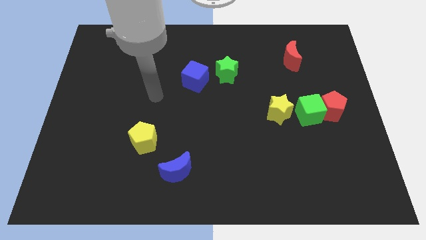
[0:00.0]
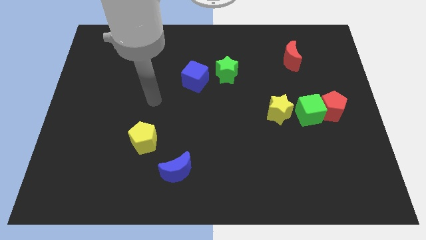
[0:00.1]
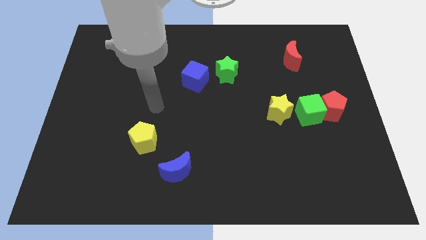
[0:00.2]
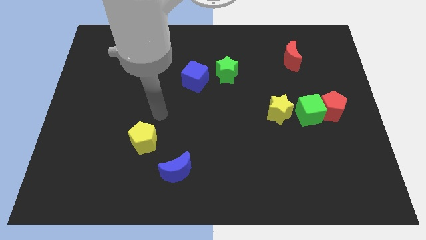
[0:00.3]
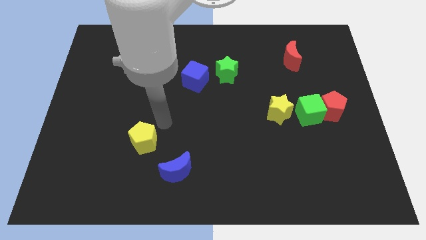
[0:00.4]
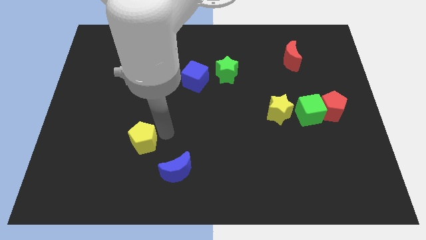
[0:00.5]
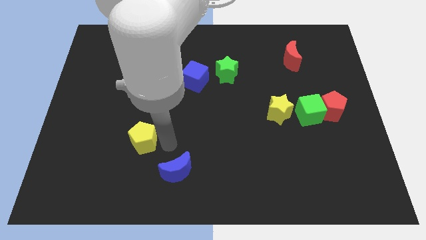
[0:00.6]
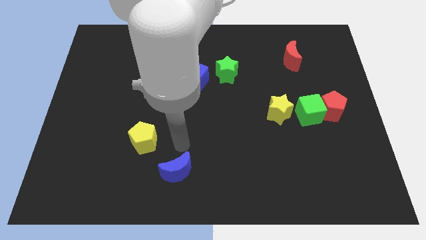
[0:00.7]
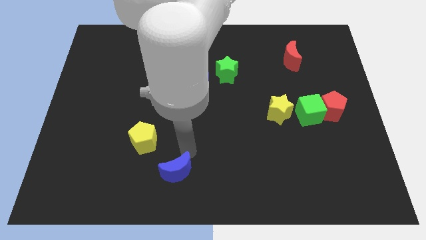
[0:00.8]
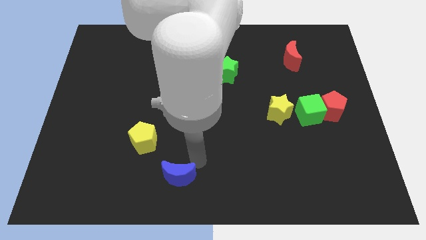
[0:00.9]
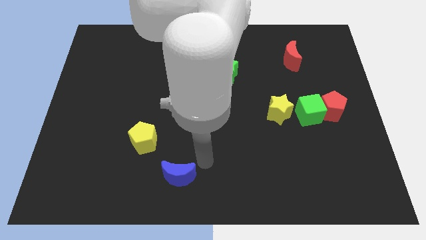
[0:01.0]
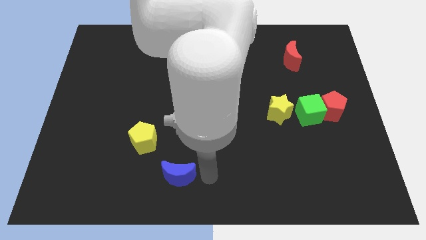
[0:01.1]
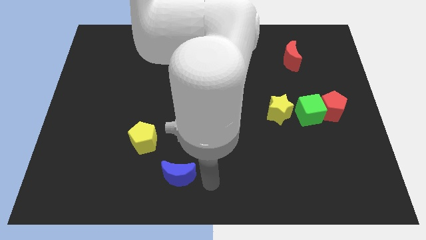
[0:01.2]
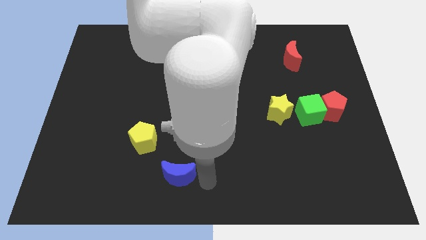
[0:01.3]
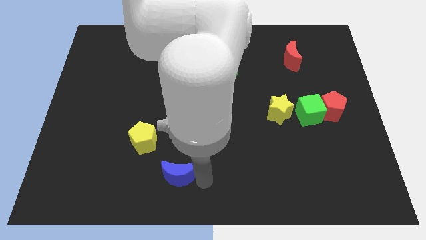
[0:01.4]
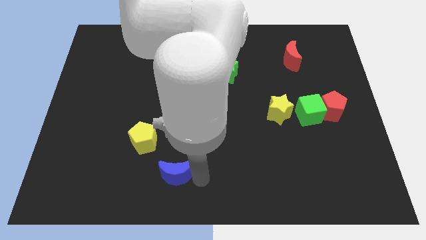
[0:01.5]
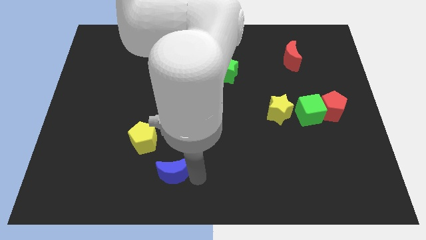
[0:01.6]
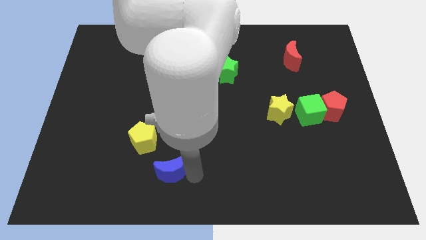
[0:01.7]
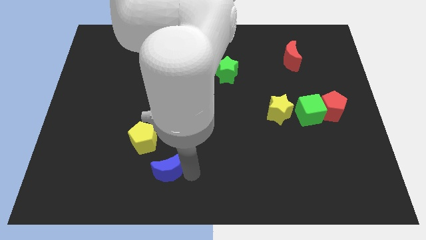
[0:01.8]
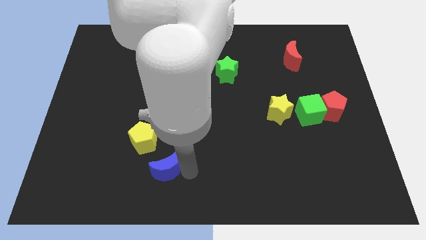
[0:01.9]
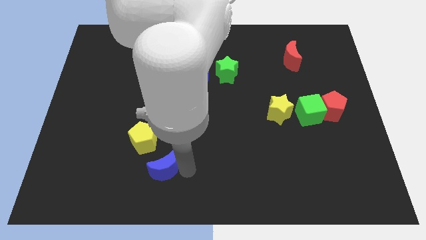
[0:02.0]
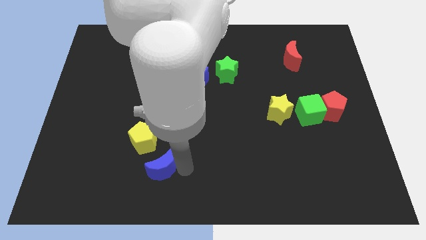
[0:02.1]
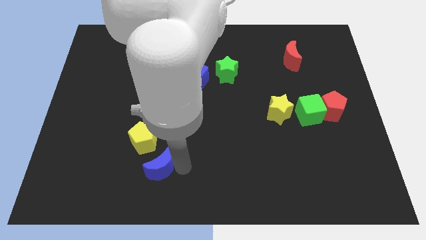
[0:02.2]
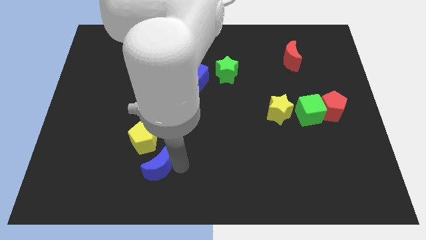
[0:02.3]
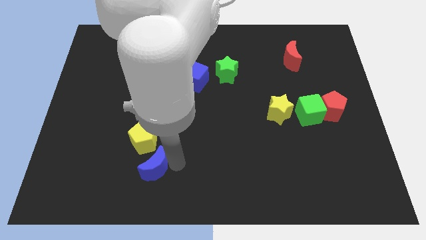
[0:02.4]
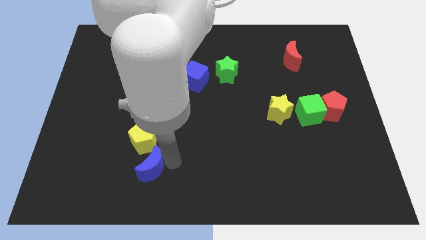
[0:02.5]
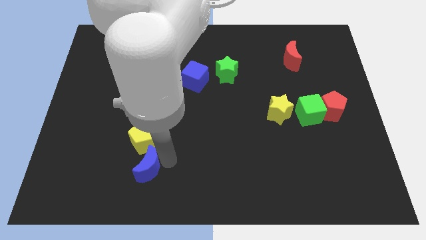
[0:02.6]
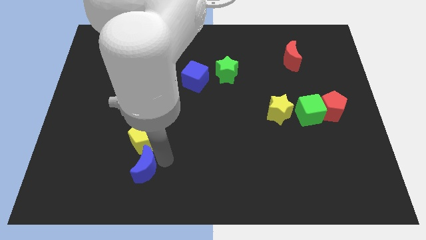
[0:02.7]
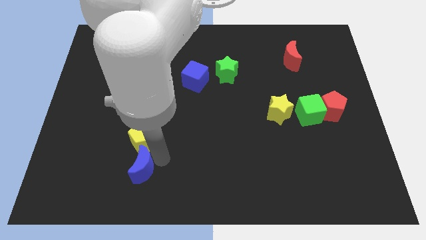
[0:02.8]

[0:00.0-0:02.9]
slide the blue moon left a little bit

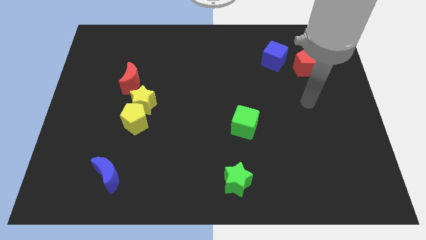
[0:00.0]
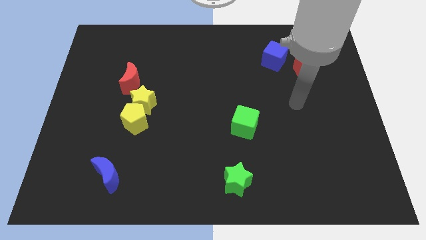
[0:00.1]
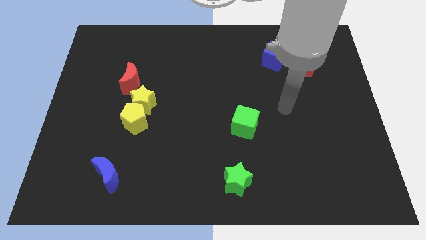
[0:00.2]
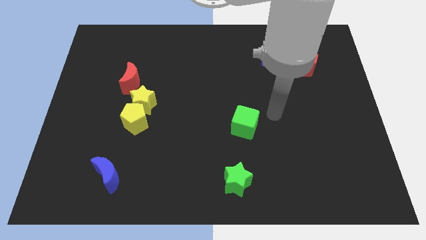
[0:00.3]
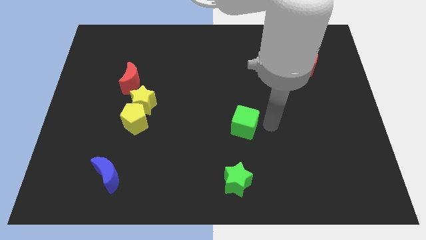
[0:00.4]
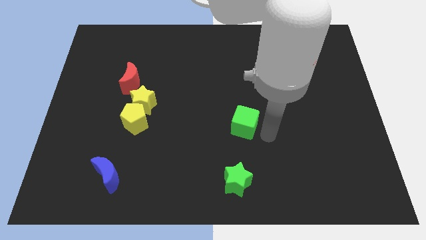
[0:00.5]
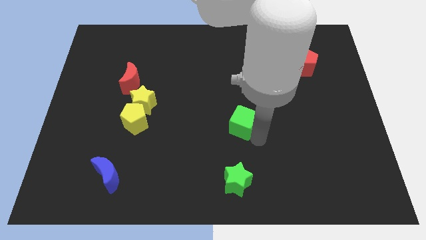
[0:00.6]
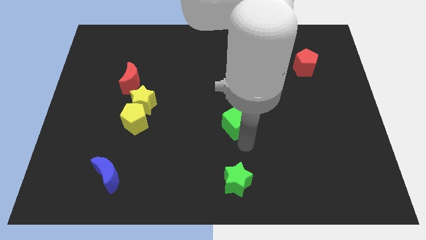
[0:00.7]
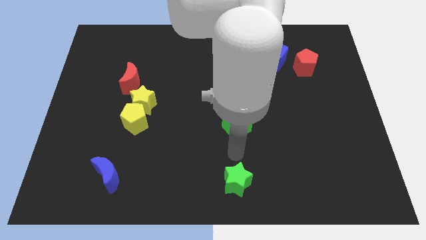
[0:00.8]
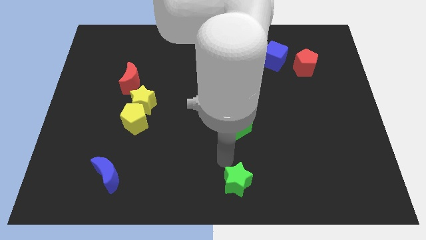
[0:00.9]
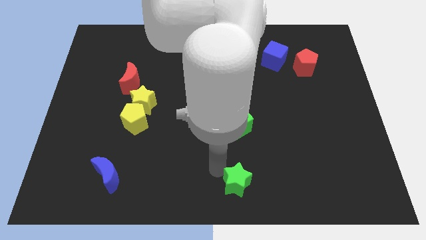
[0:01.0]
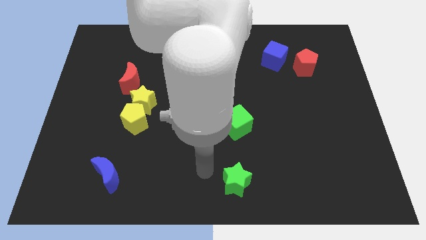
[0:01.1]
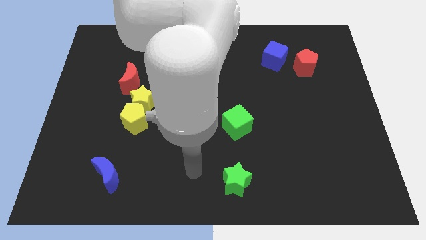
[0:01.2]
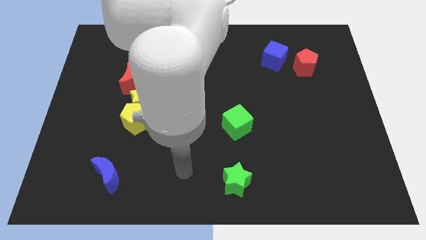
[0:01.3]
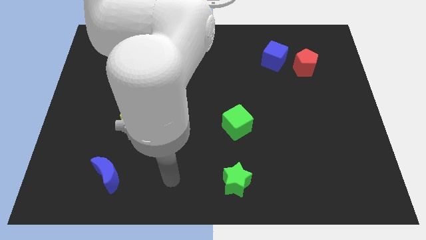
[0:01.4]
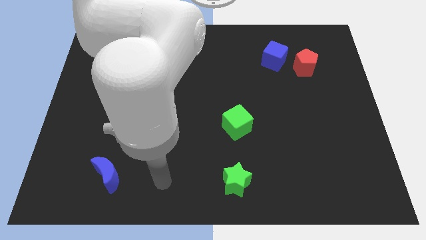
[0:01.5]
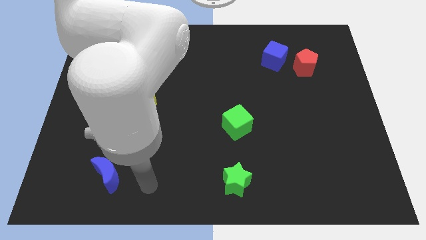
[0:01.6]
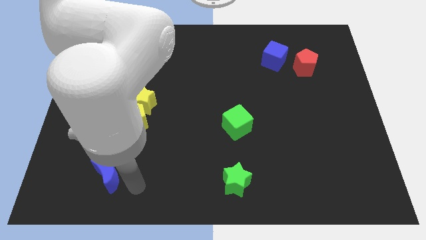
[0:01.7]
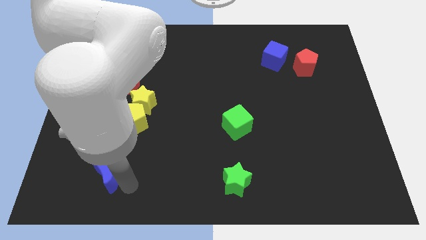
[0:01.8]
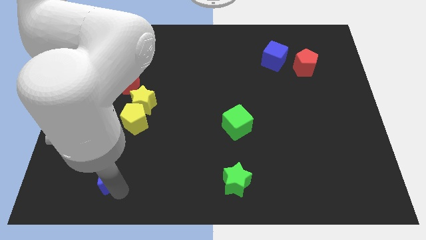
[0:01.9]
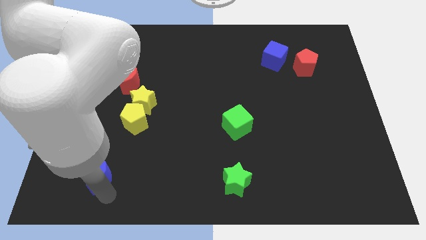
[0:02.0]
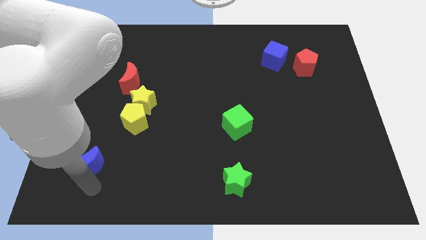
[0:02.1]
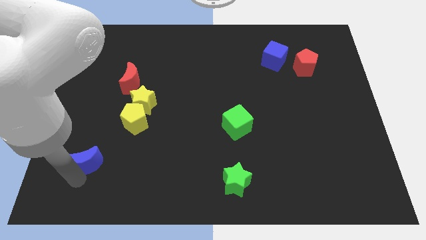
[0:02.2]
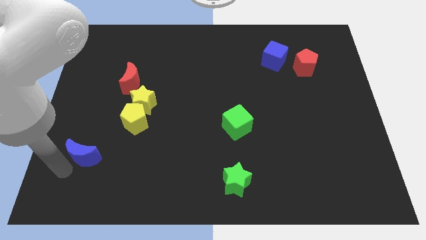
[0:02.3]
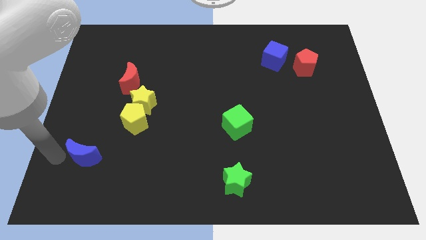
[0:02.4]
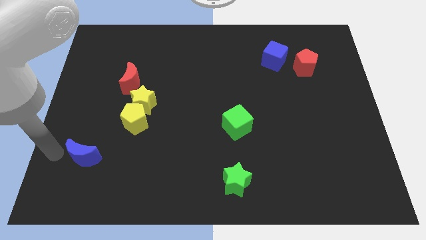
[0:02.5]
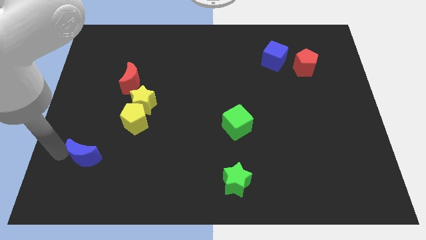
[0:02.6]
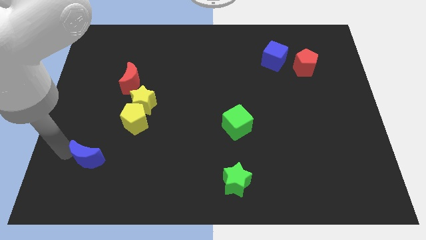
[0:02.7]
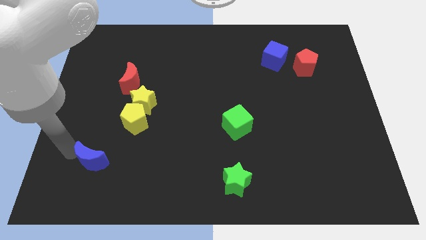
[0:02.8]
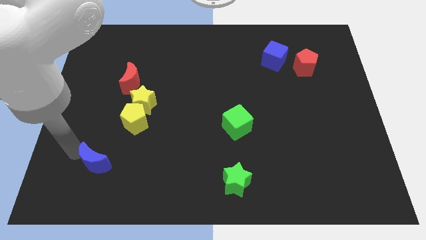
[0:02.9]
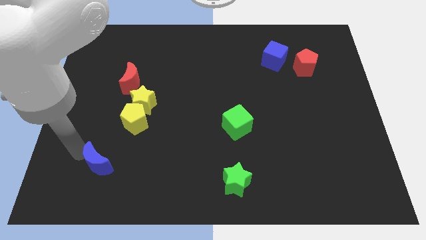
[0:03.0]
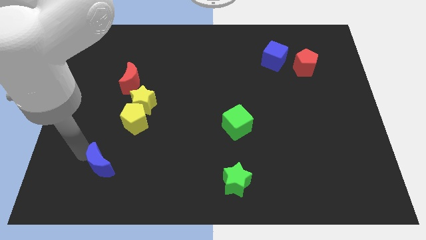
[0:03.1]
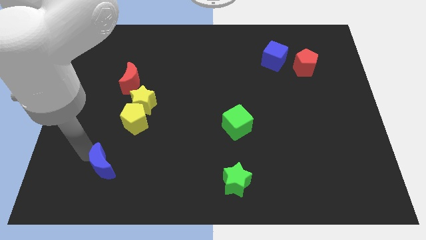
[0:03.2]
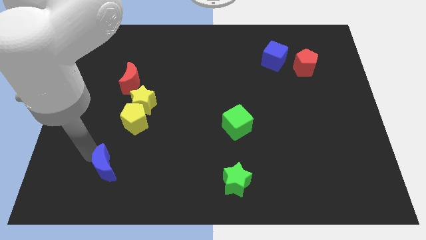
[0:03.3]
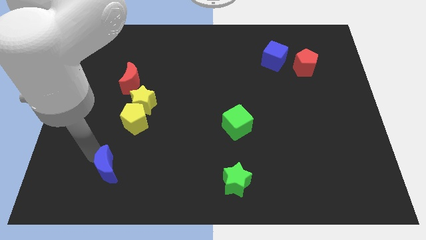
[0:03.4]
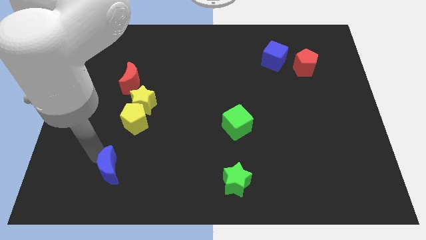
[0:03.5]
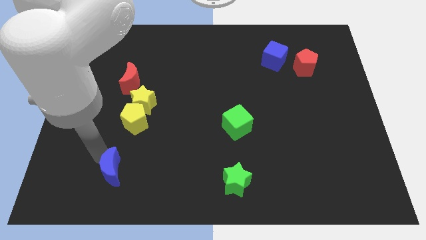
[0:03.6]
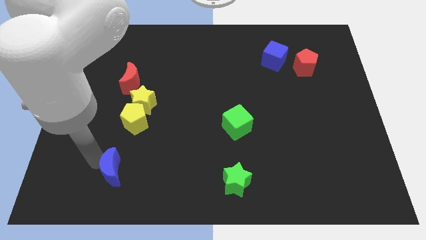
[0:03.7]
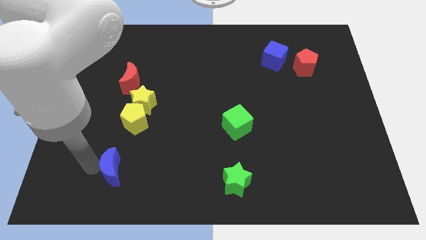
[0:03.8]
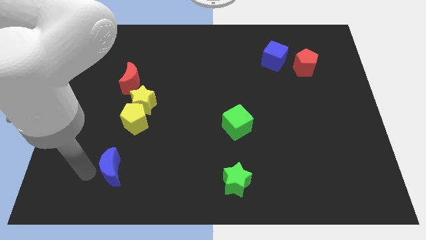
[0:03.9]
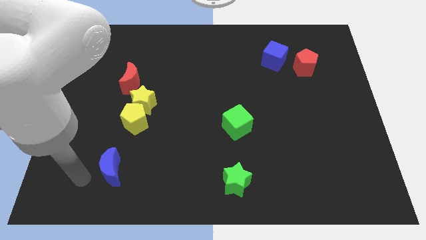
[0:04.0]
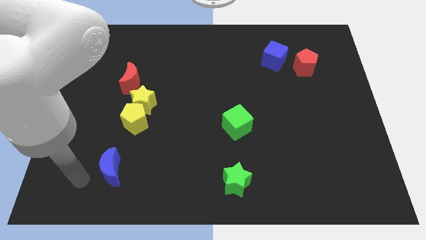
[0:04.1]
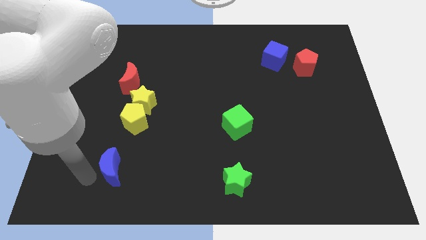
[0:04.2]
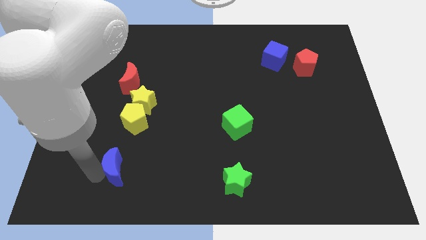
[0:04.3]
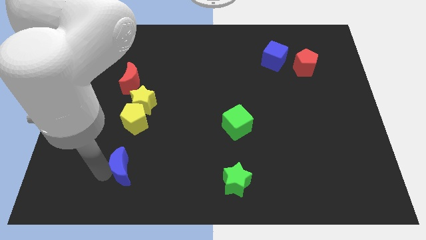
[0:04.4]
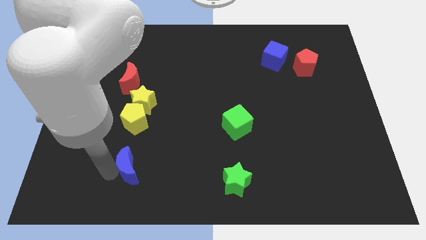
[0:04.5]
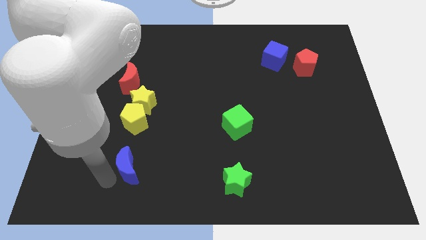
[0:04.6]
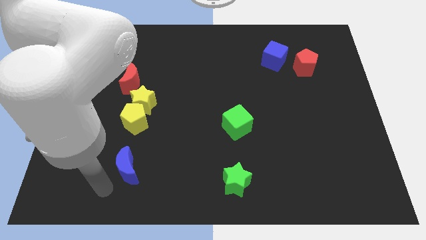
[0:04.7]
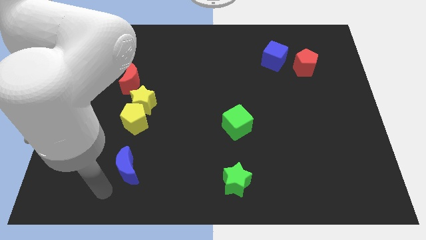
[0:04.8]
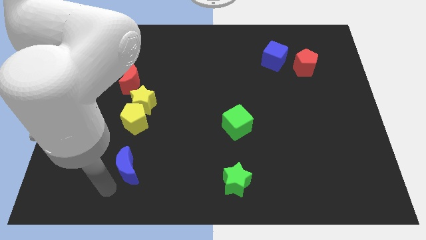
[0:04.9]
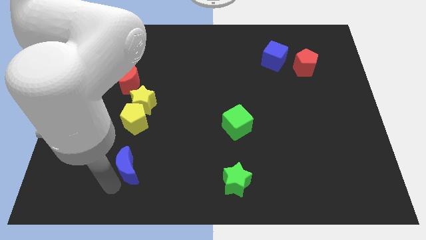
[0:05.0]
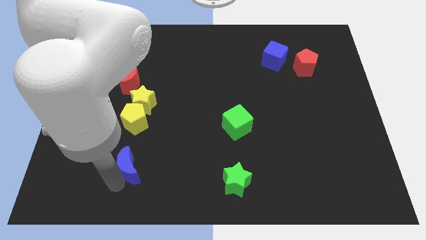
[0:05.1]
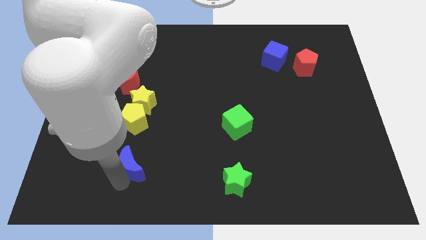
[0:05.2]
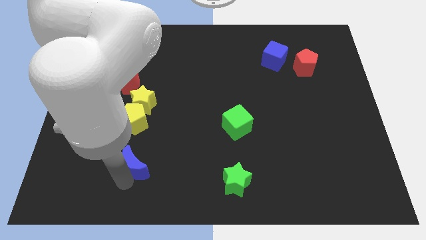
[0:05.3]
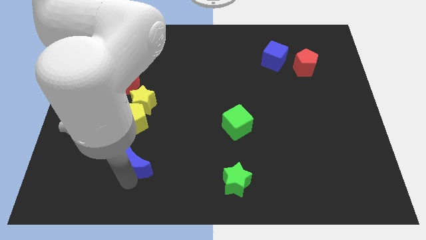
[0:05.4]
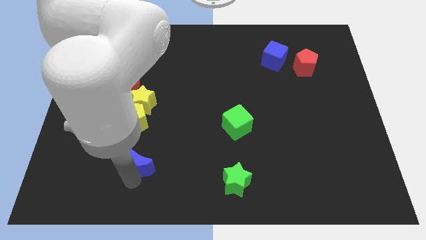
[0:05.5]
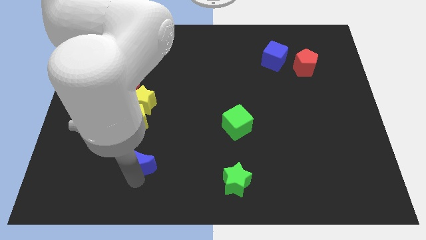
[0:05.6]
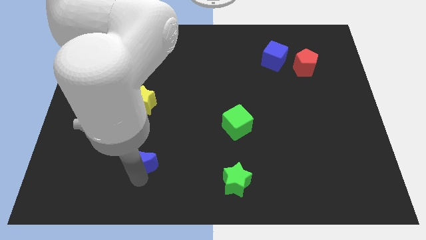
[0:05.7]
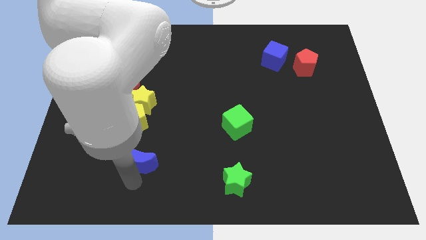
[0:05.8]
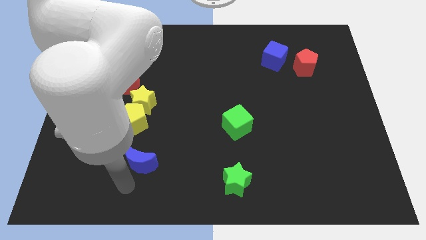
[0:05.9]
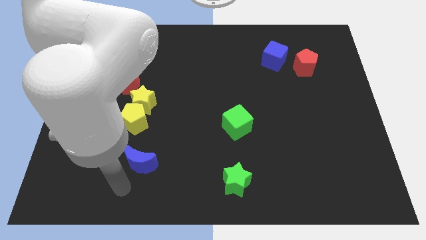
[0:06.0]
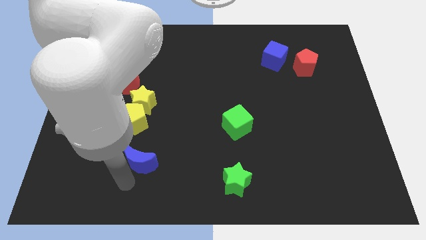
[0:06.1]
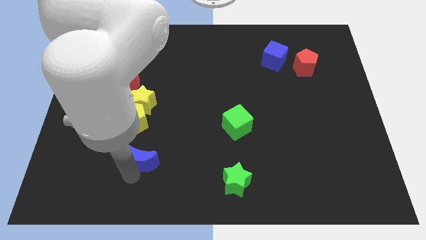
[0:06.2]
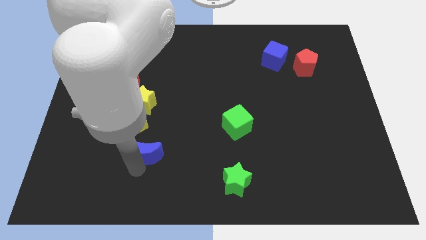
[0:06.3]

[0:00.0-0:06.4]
slightly slide the blue moon up and then to the right
